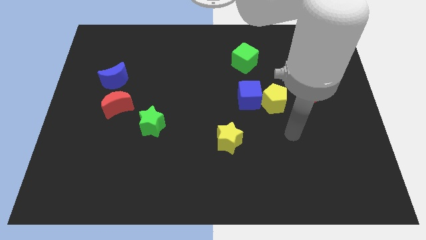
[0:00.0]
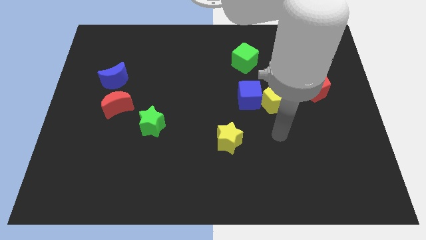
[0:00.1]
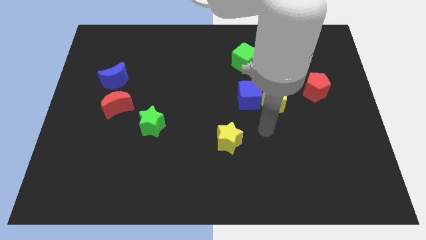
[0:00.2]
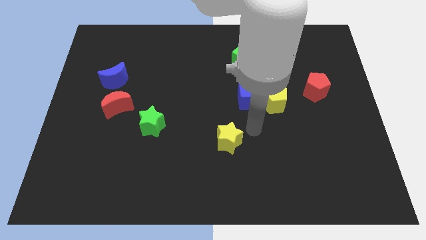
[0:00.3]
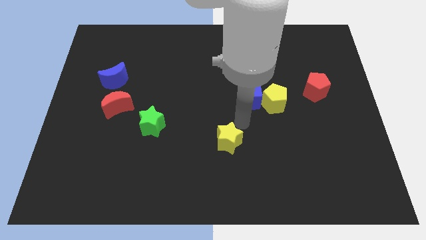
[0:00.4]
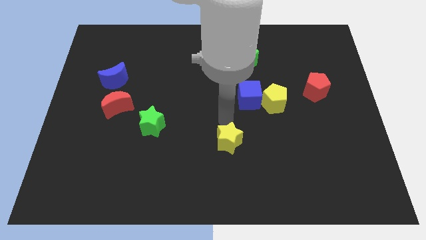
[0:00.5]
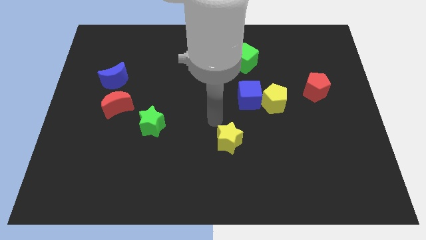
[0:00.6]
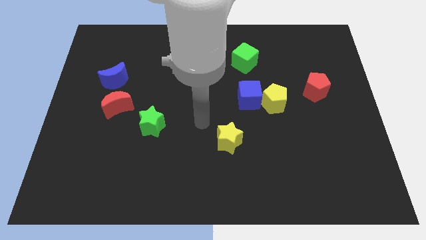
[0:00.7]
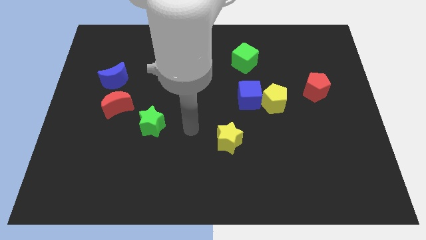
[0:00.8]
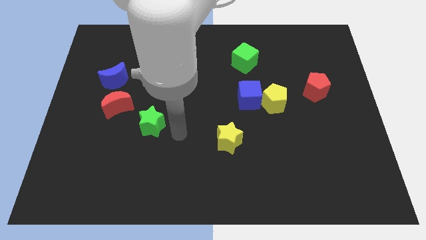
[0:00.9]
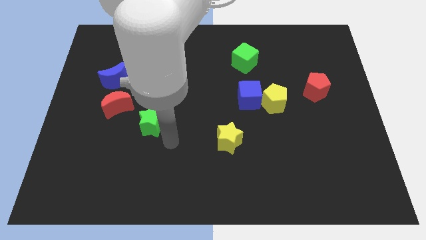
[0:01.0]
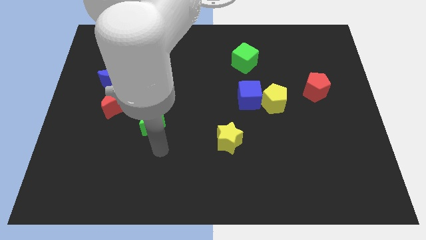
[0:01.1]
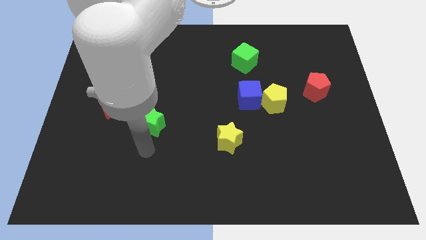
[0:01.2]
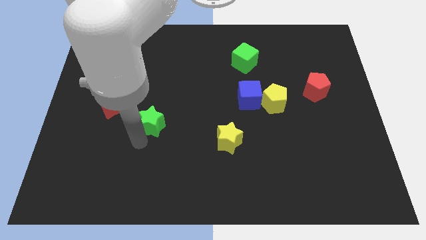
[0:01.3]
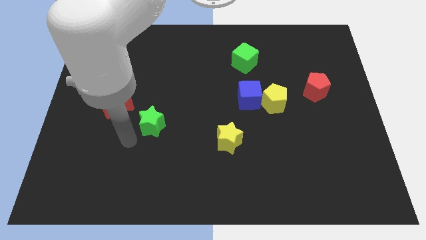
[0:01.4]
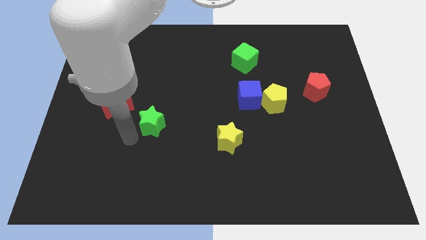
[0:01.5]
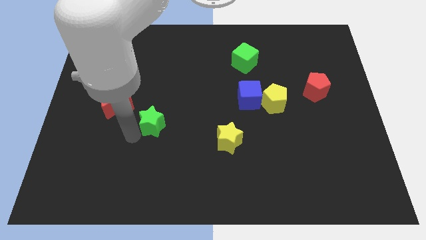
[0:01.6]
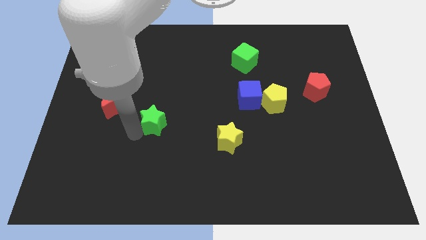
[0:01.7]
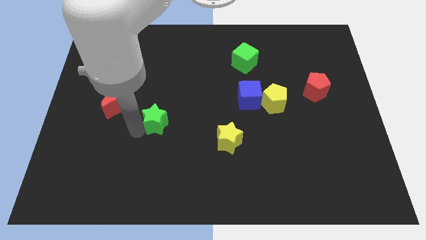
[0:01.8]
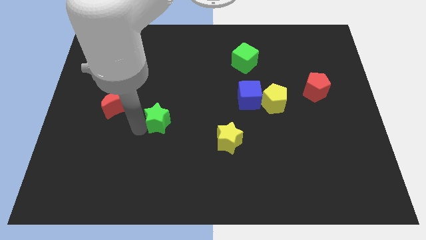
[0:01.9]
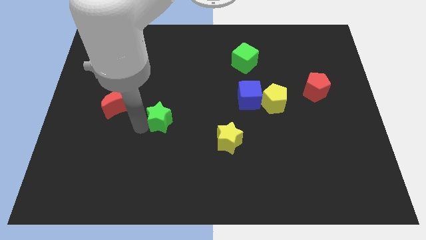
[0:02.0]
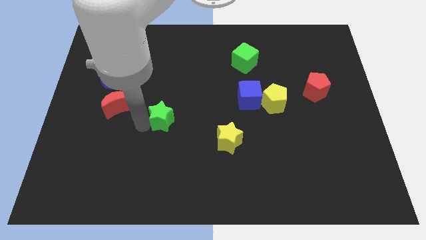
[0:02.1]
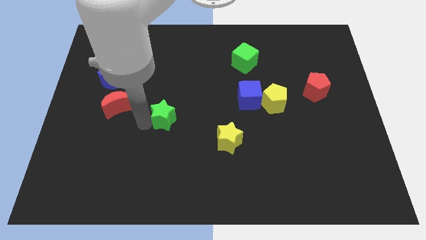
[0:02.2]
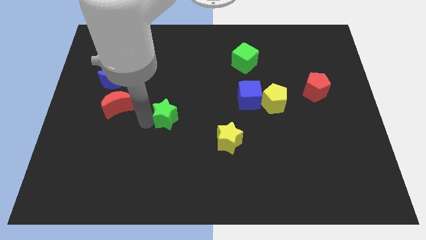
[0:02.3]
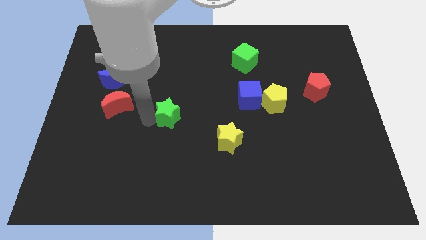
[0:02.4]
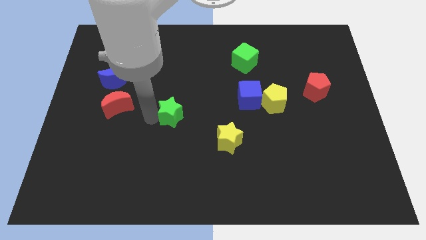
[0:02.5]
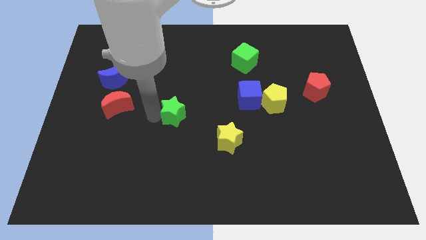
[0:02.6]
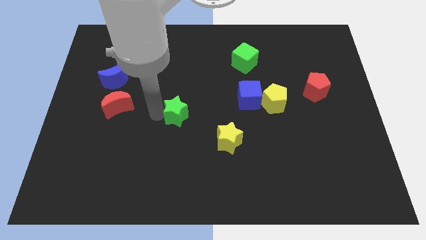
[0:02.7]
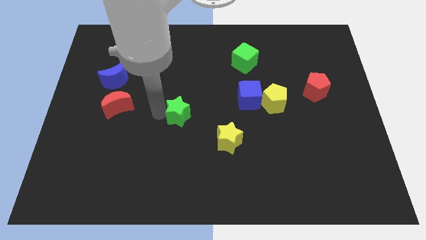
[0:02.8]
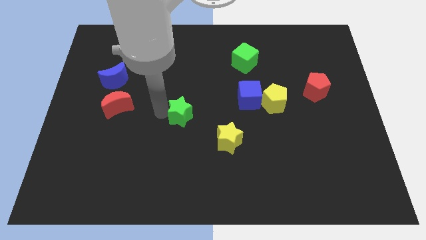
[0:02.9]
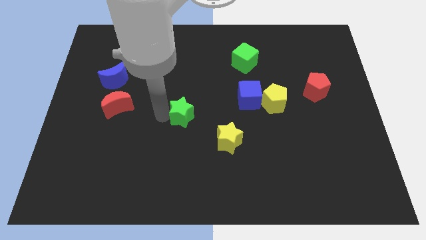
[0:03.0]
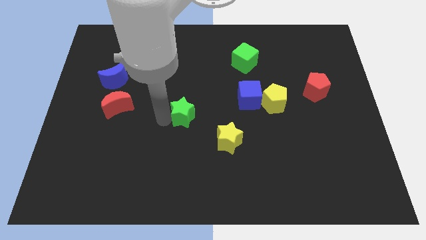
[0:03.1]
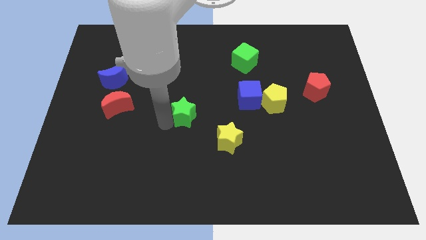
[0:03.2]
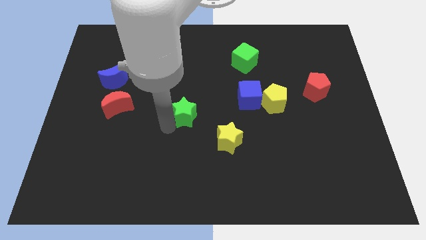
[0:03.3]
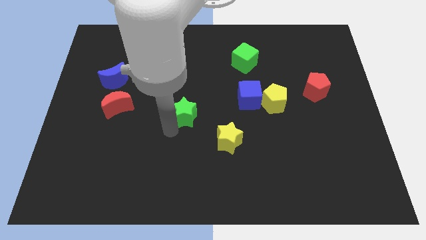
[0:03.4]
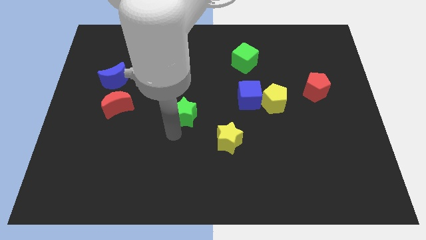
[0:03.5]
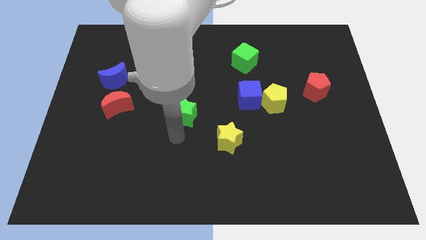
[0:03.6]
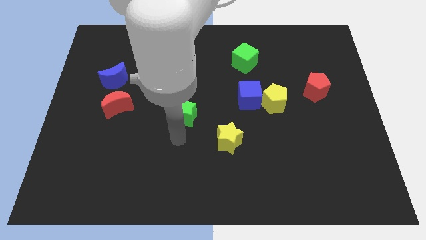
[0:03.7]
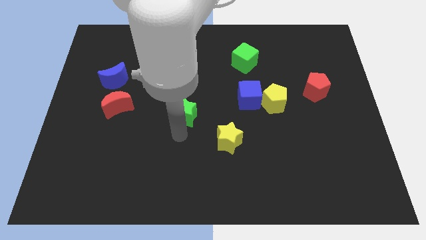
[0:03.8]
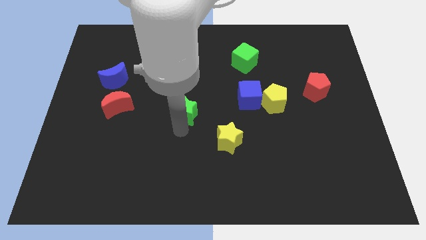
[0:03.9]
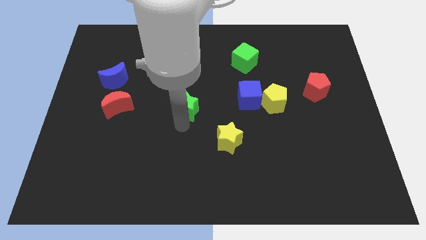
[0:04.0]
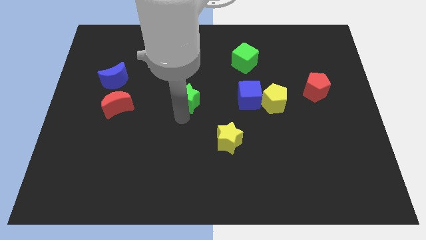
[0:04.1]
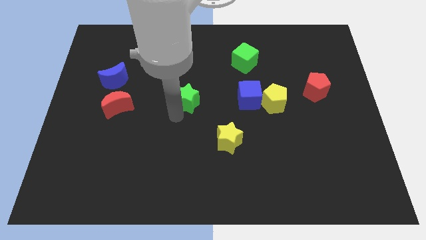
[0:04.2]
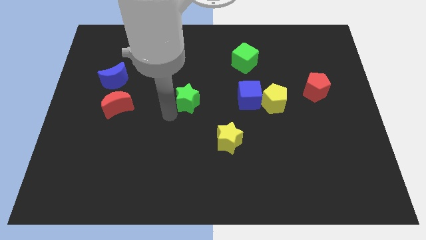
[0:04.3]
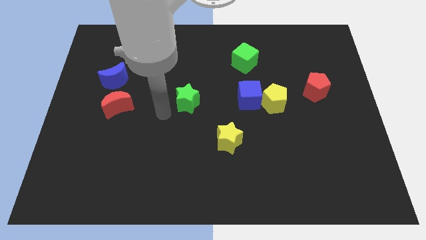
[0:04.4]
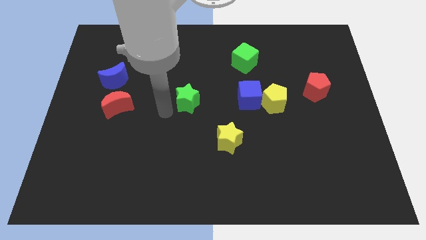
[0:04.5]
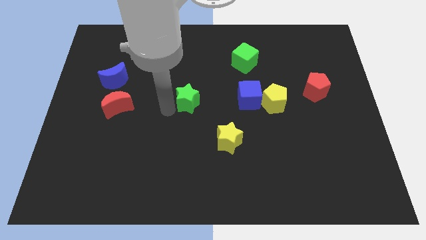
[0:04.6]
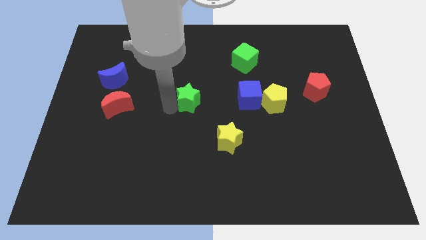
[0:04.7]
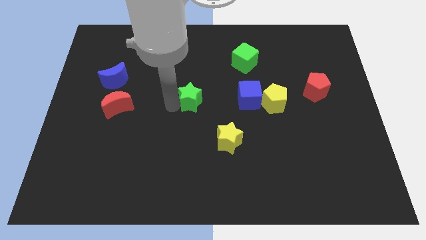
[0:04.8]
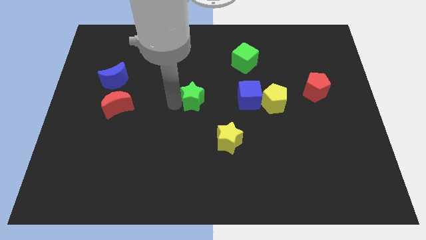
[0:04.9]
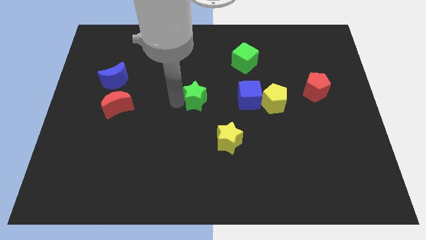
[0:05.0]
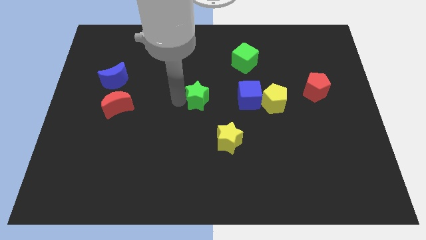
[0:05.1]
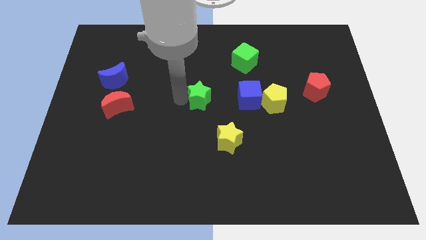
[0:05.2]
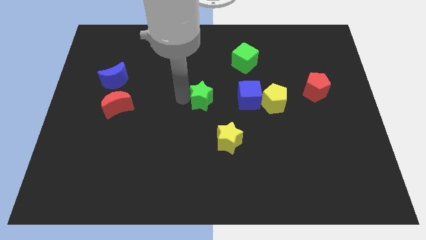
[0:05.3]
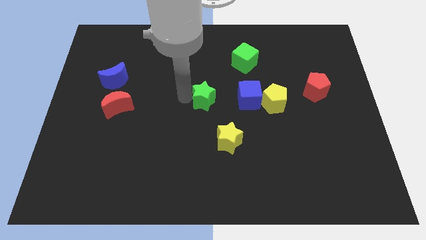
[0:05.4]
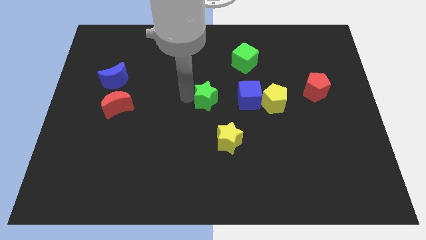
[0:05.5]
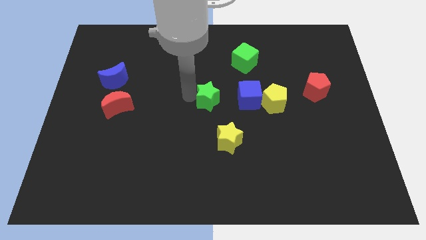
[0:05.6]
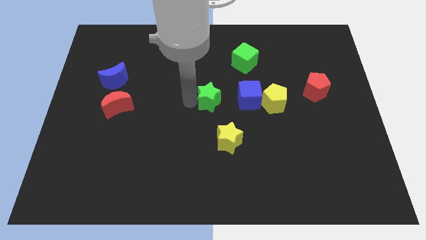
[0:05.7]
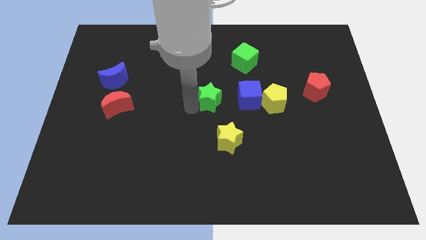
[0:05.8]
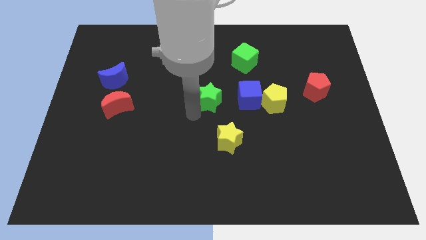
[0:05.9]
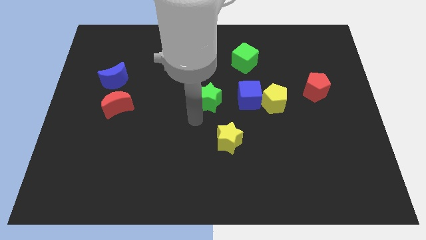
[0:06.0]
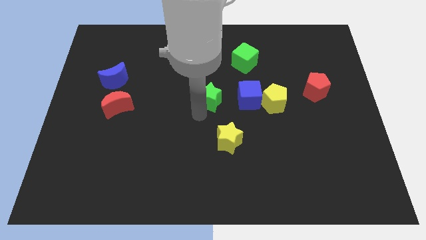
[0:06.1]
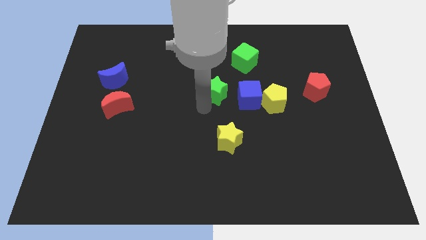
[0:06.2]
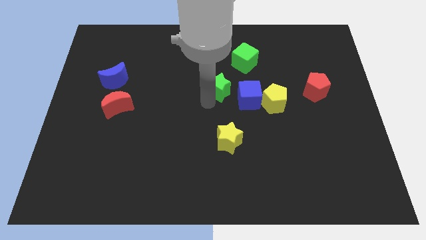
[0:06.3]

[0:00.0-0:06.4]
slide the green star to the bottom left side of the green cube

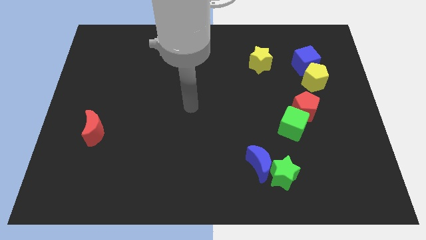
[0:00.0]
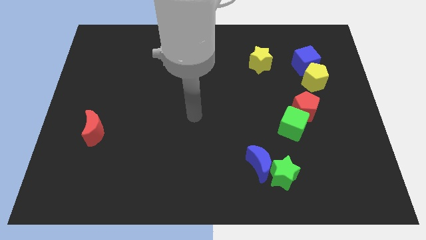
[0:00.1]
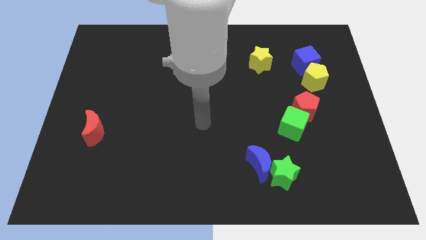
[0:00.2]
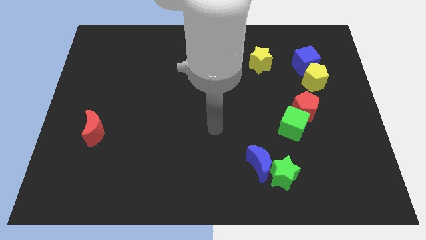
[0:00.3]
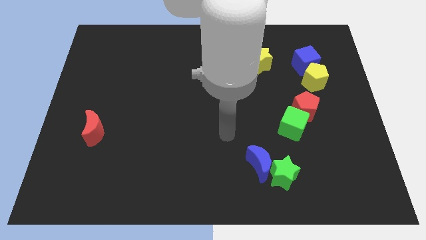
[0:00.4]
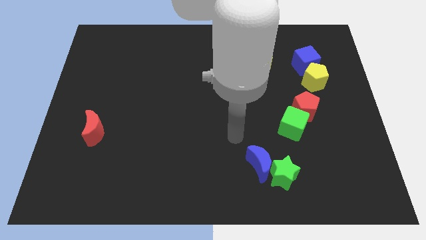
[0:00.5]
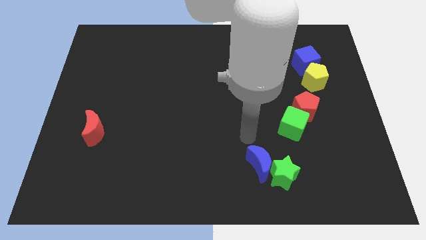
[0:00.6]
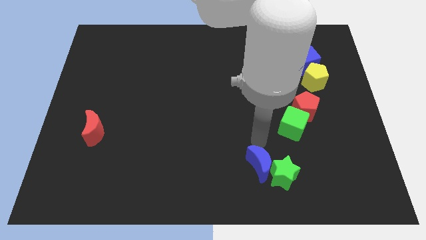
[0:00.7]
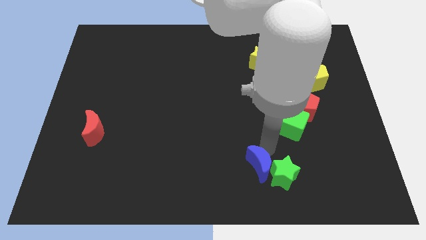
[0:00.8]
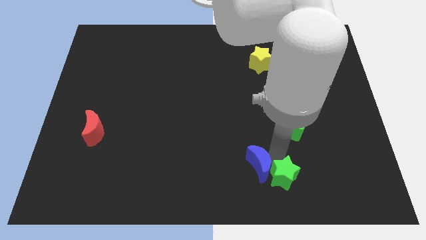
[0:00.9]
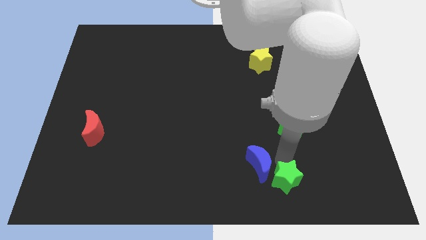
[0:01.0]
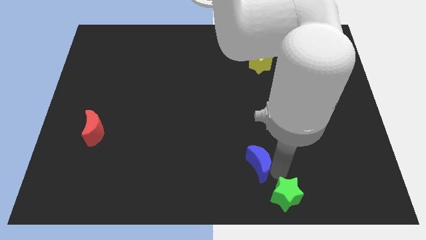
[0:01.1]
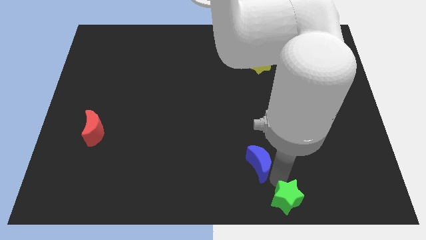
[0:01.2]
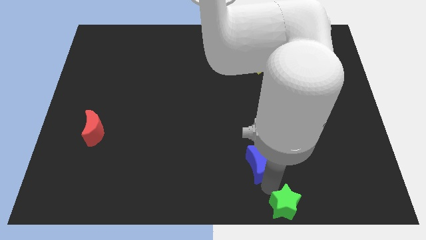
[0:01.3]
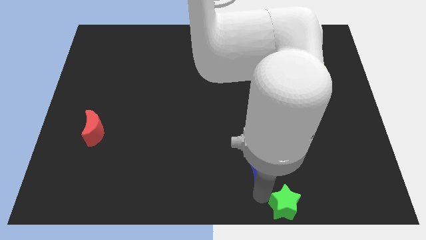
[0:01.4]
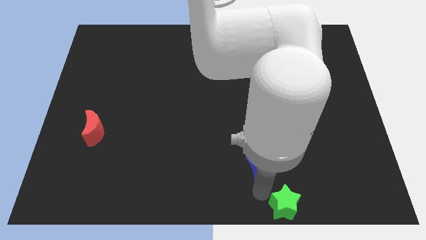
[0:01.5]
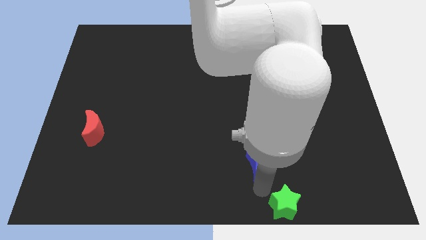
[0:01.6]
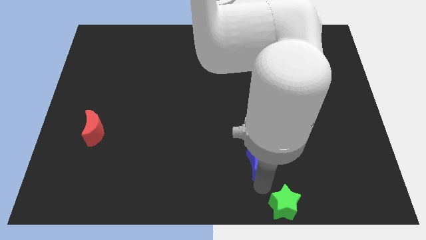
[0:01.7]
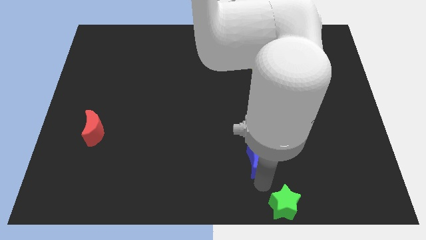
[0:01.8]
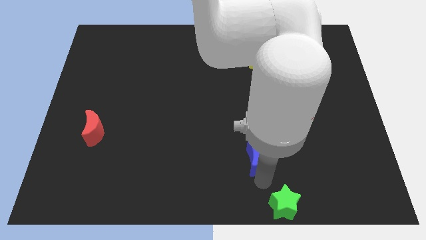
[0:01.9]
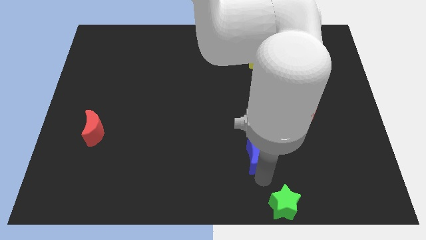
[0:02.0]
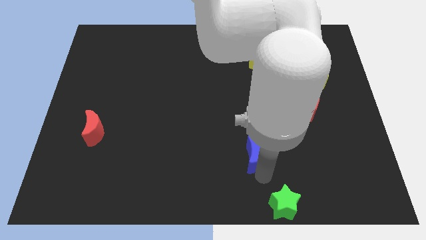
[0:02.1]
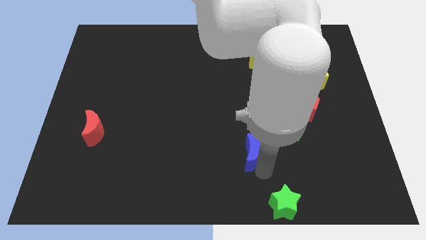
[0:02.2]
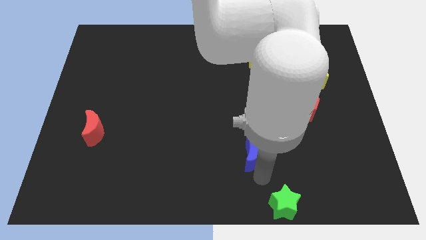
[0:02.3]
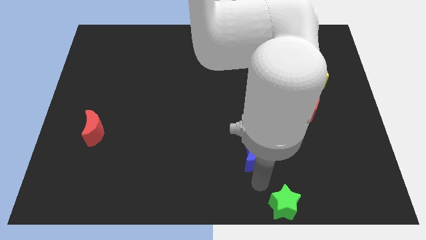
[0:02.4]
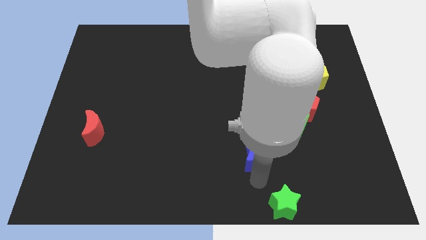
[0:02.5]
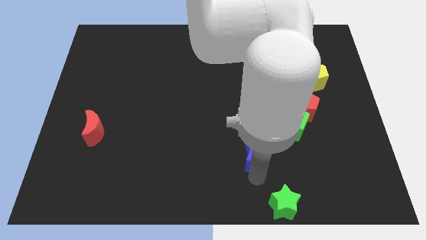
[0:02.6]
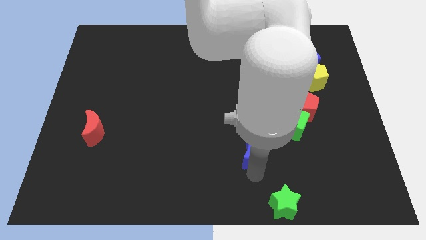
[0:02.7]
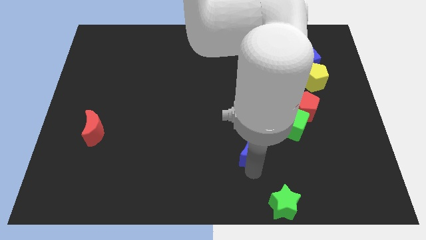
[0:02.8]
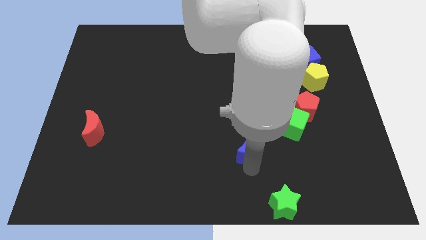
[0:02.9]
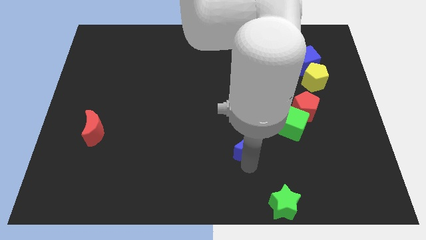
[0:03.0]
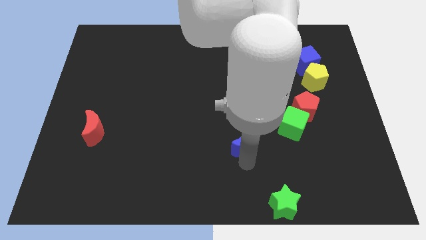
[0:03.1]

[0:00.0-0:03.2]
push the blue moon just left of the green cube
